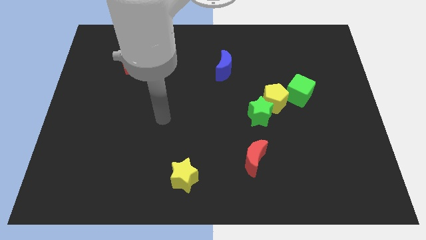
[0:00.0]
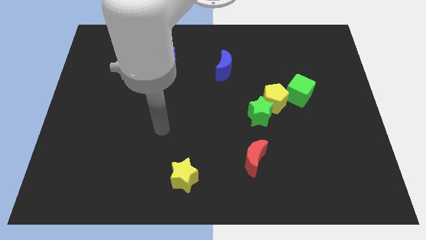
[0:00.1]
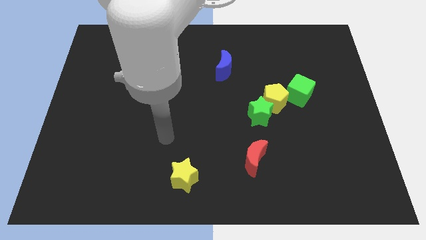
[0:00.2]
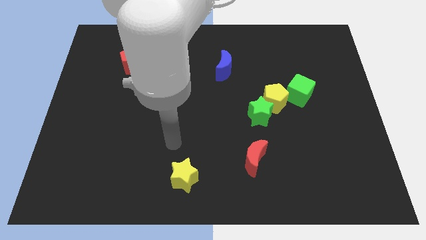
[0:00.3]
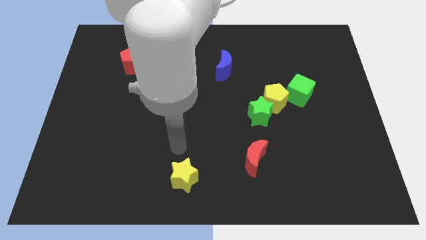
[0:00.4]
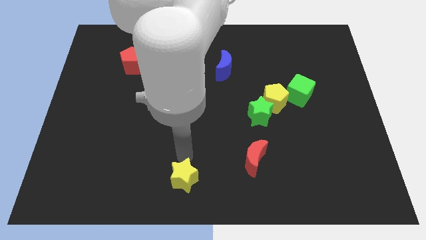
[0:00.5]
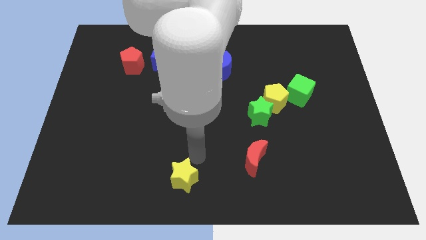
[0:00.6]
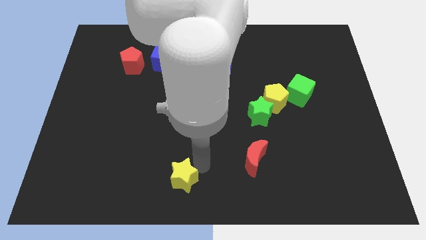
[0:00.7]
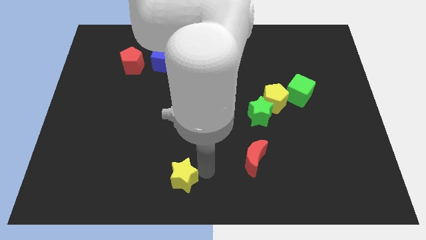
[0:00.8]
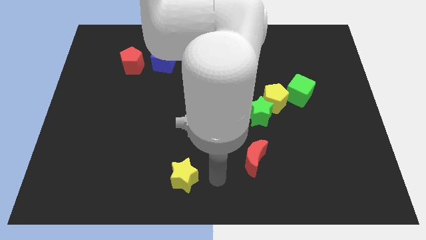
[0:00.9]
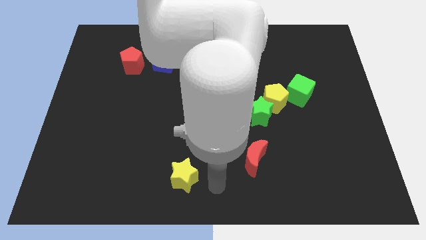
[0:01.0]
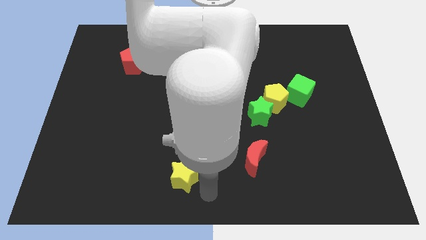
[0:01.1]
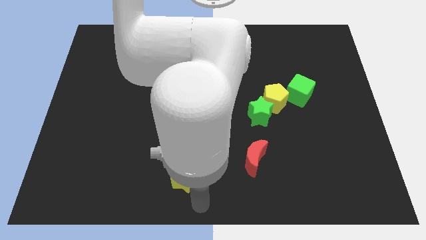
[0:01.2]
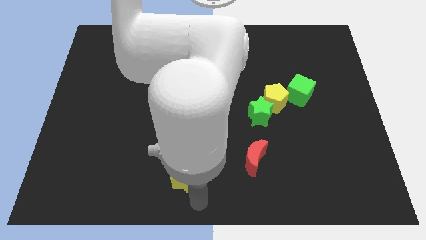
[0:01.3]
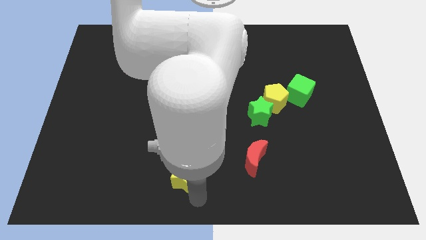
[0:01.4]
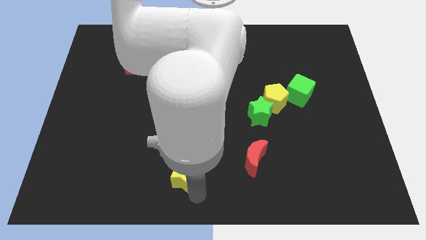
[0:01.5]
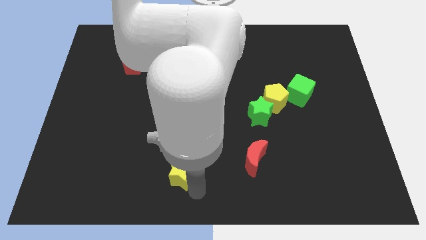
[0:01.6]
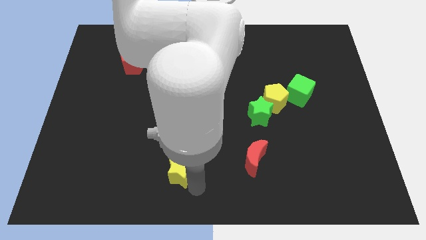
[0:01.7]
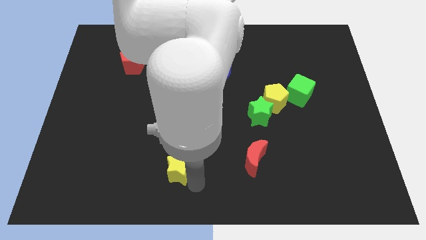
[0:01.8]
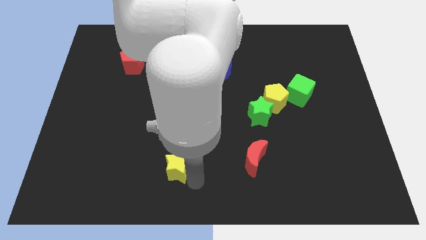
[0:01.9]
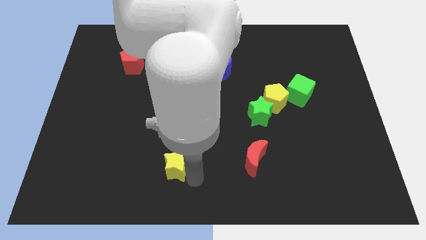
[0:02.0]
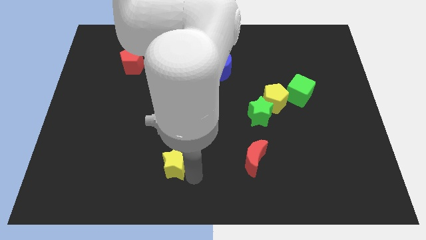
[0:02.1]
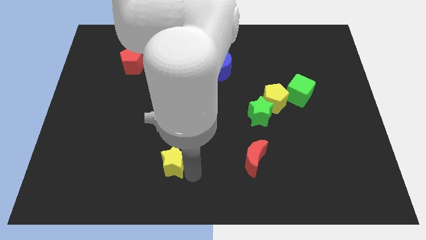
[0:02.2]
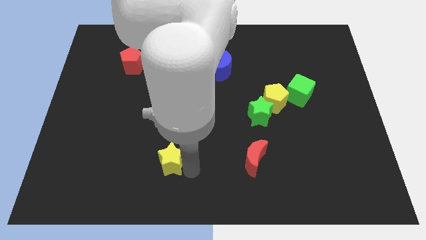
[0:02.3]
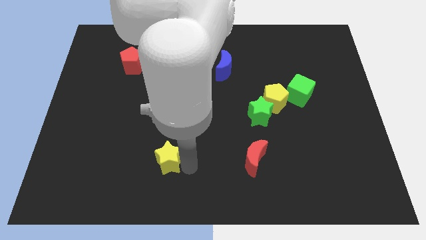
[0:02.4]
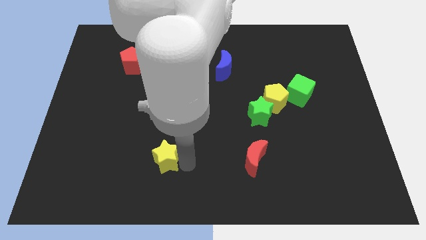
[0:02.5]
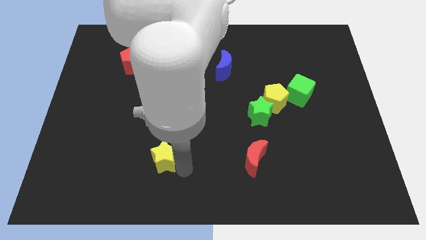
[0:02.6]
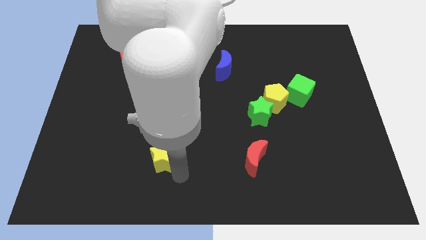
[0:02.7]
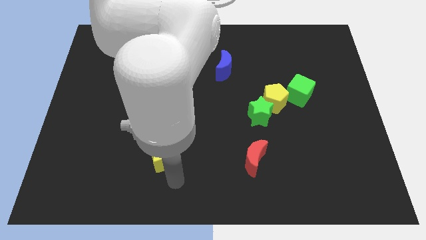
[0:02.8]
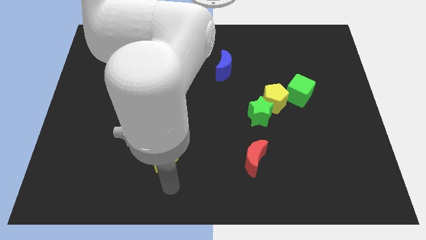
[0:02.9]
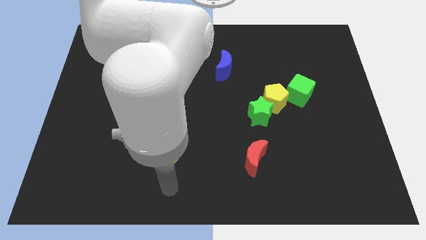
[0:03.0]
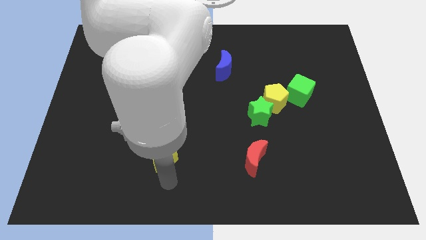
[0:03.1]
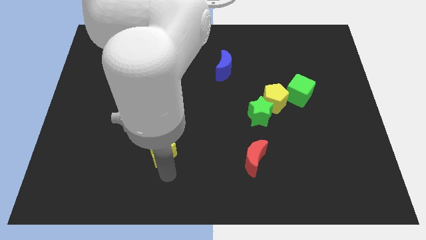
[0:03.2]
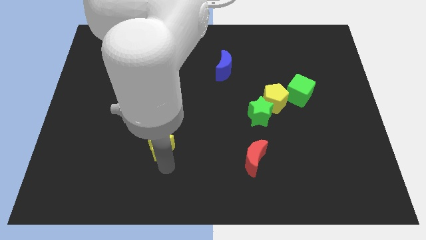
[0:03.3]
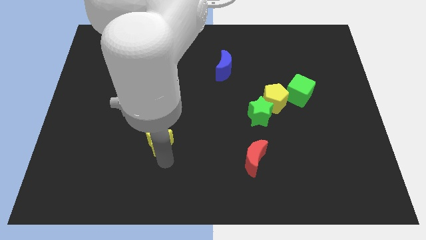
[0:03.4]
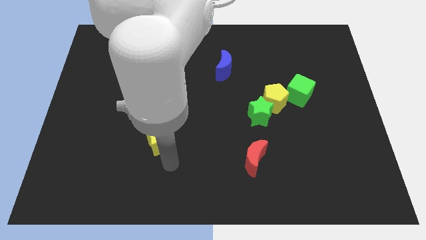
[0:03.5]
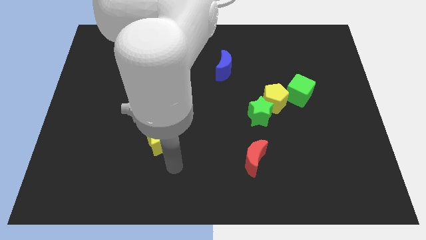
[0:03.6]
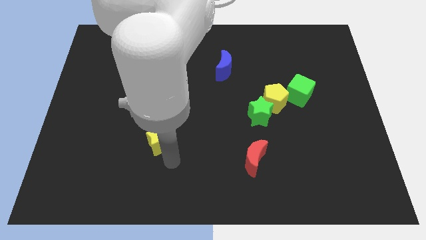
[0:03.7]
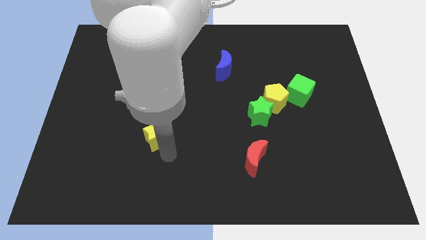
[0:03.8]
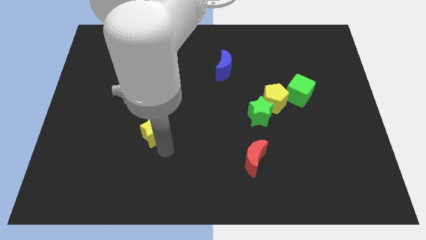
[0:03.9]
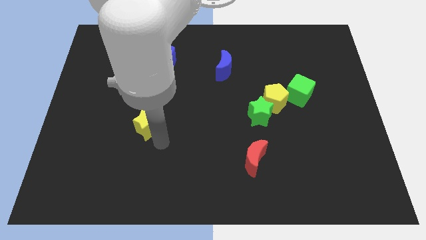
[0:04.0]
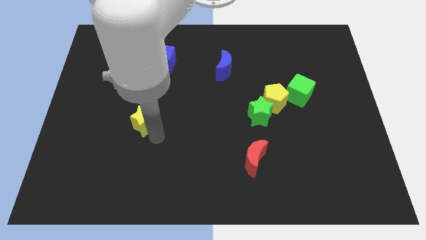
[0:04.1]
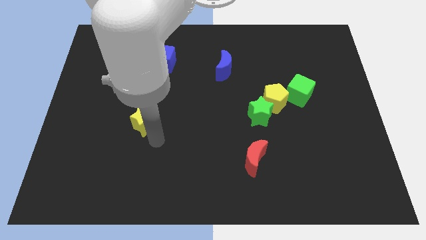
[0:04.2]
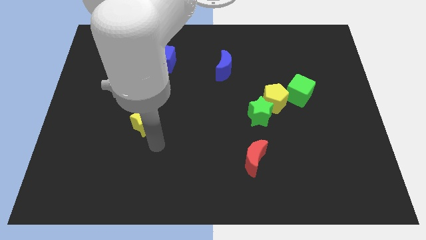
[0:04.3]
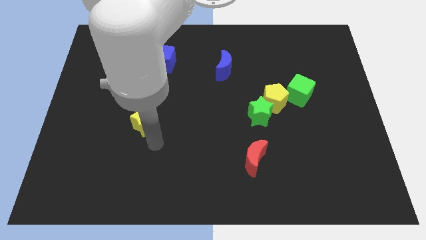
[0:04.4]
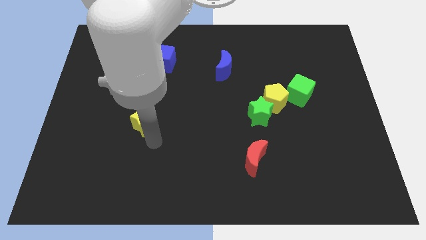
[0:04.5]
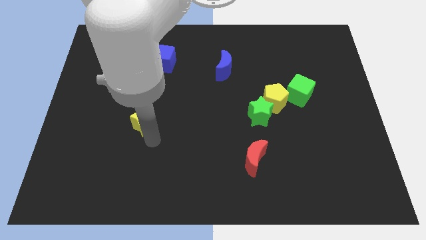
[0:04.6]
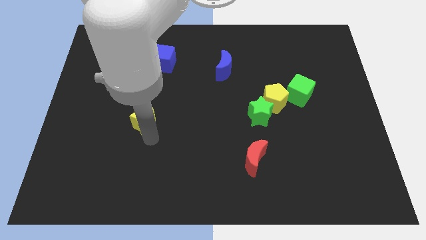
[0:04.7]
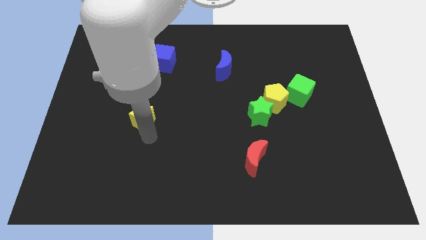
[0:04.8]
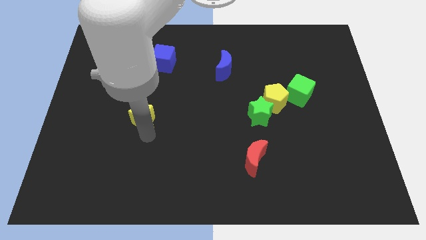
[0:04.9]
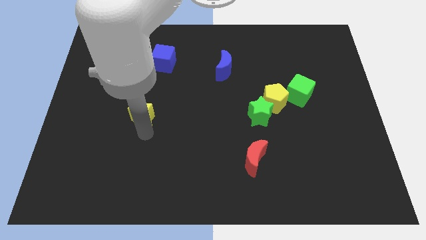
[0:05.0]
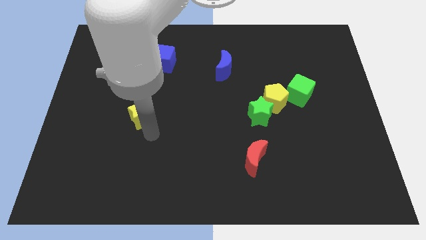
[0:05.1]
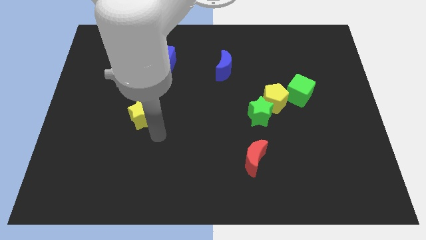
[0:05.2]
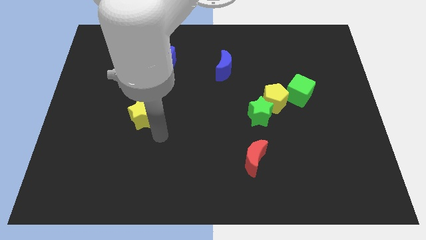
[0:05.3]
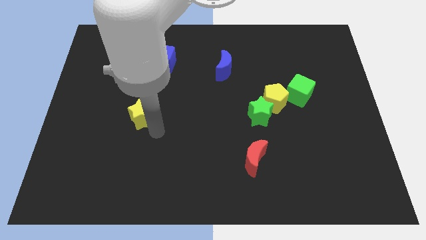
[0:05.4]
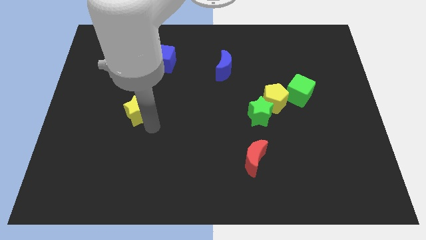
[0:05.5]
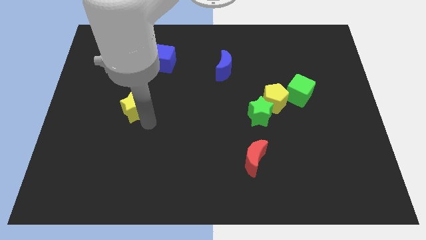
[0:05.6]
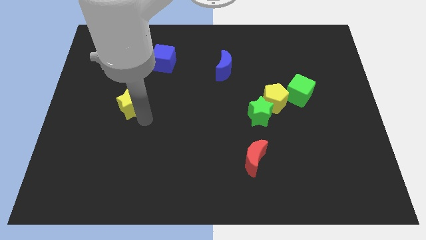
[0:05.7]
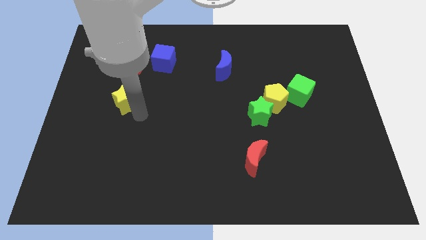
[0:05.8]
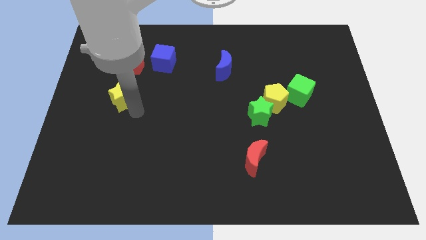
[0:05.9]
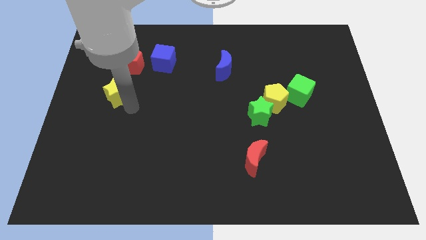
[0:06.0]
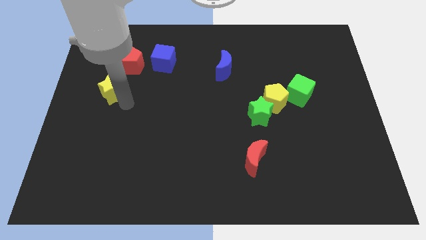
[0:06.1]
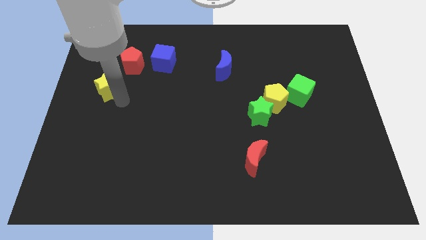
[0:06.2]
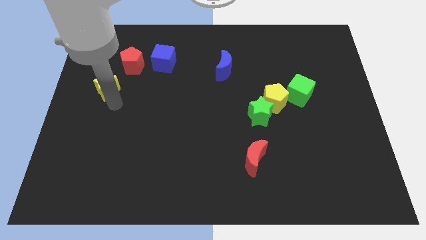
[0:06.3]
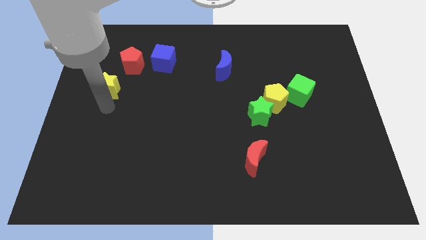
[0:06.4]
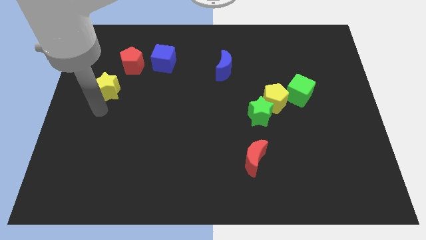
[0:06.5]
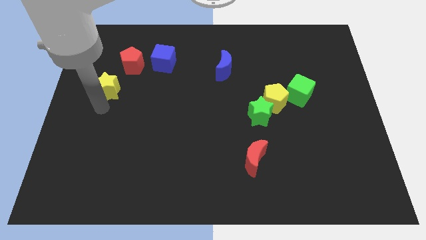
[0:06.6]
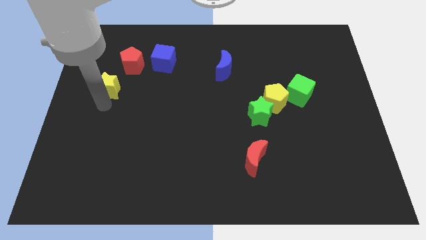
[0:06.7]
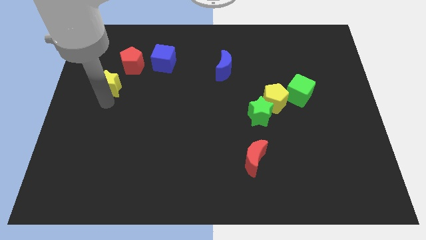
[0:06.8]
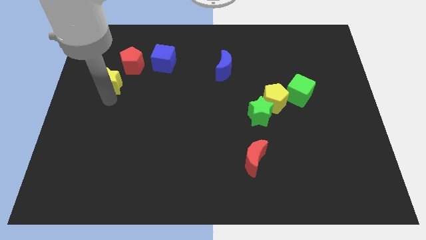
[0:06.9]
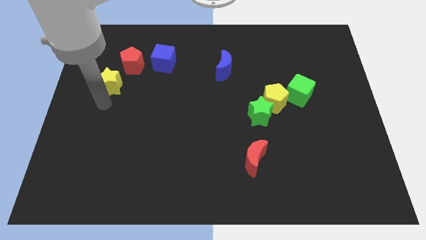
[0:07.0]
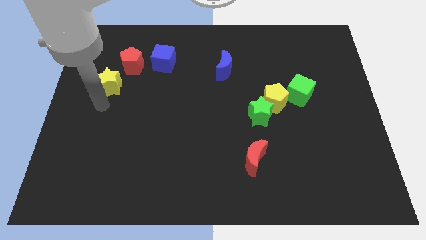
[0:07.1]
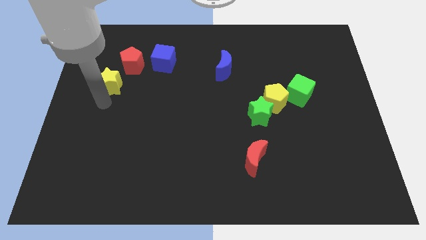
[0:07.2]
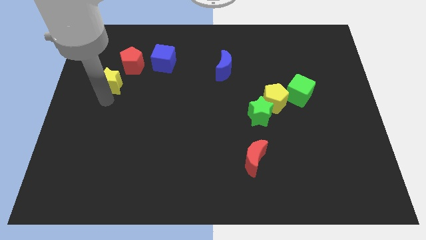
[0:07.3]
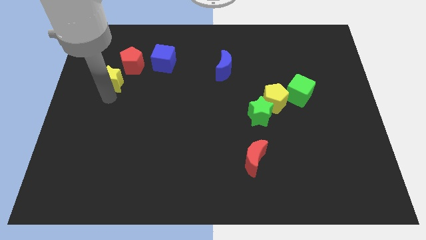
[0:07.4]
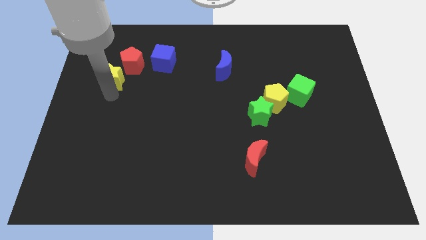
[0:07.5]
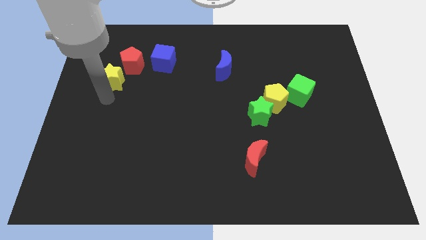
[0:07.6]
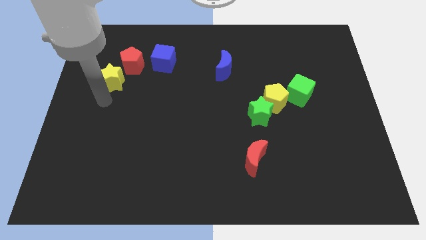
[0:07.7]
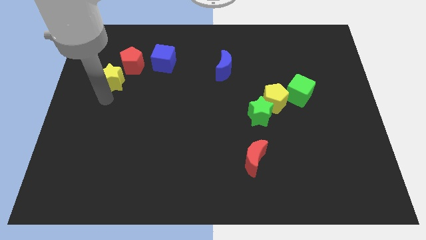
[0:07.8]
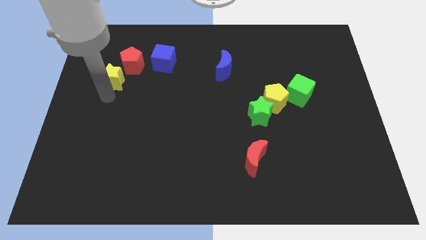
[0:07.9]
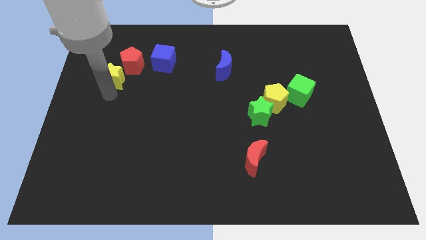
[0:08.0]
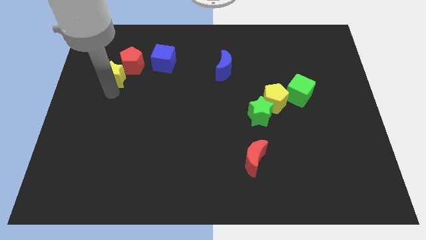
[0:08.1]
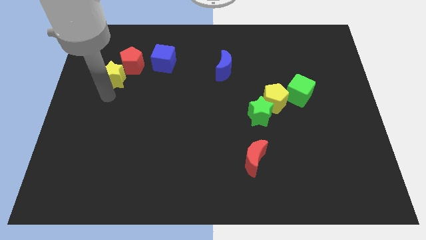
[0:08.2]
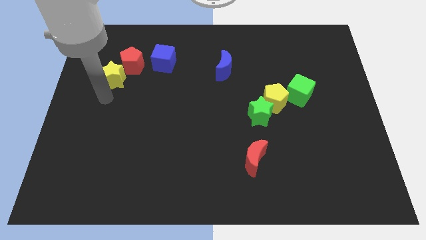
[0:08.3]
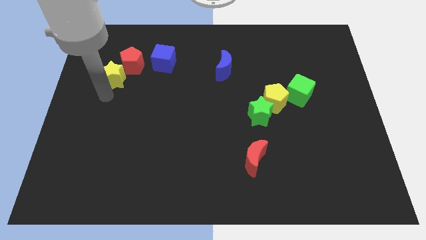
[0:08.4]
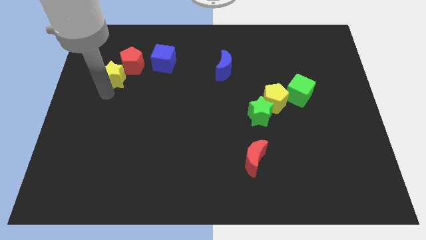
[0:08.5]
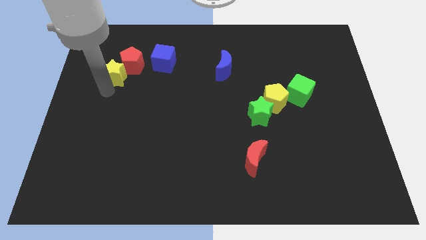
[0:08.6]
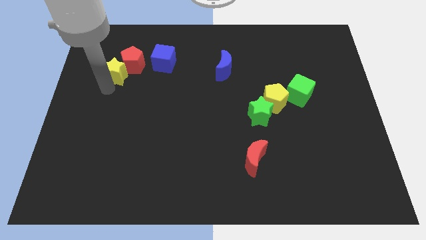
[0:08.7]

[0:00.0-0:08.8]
move the yellow star to the left of the blue cube
